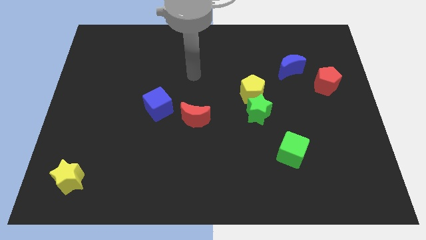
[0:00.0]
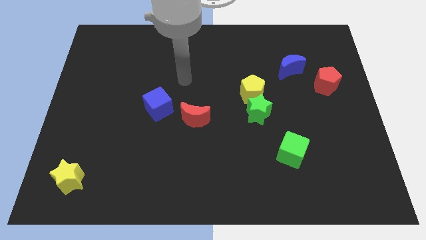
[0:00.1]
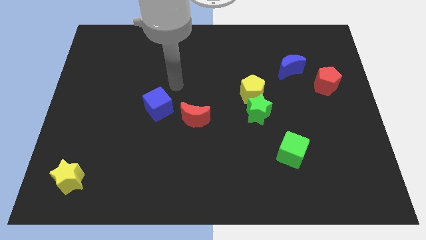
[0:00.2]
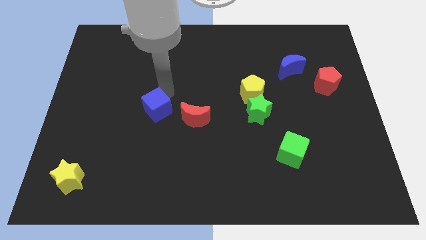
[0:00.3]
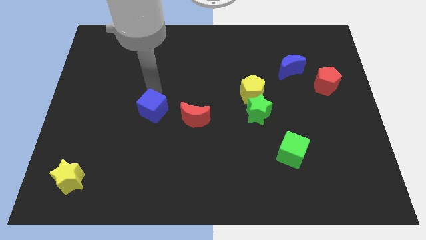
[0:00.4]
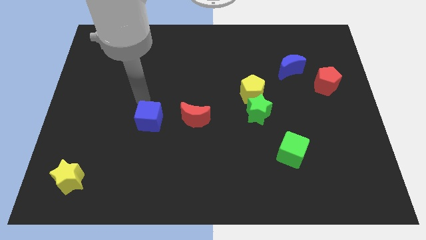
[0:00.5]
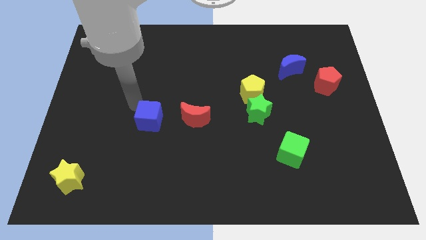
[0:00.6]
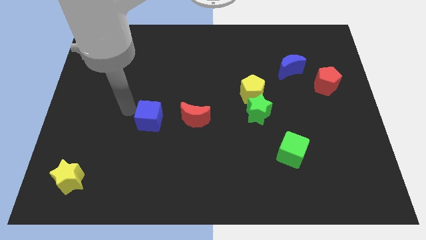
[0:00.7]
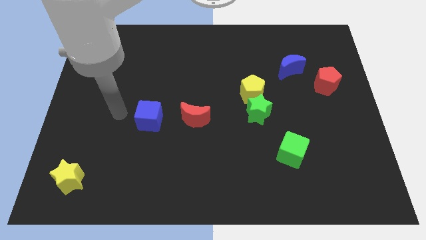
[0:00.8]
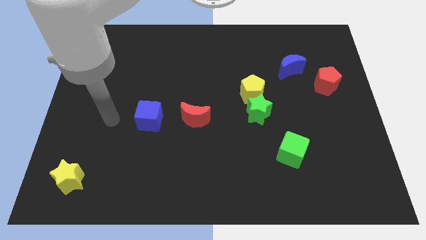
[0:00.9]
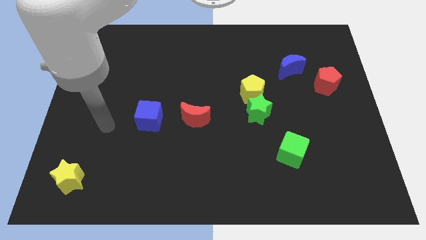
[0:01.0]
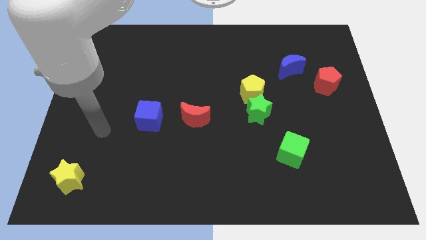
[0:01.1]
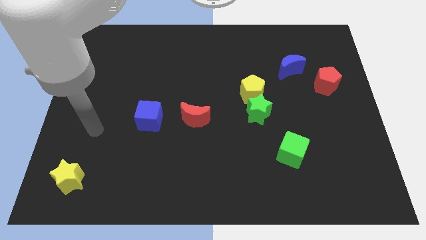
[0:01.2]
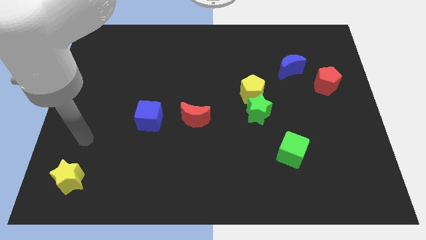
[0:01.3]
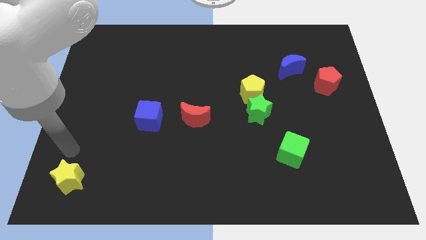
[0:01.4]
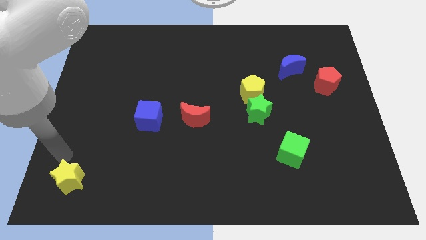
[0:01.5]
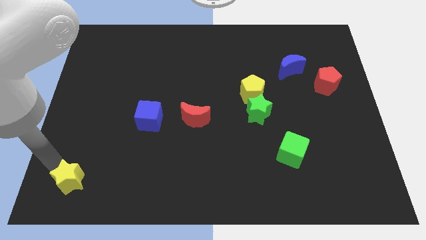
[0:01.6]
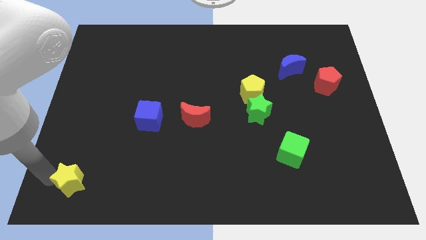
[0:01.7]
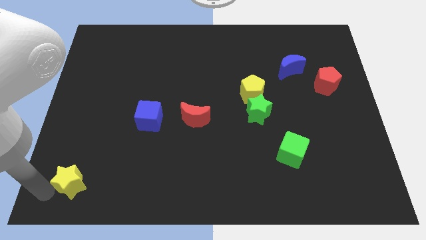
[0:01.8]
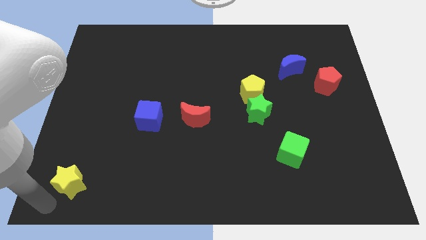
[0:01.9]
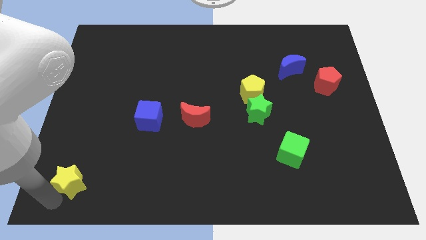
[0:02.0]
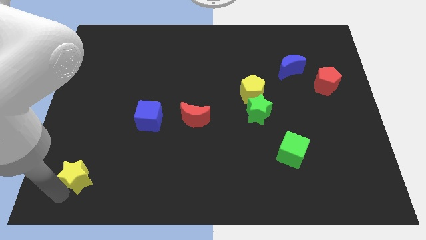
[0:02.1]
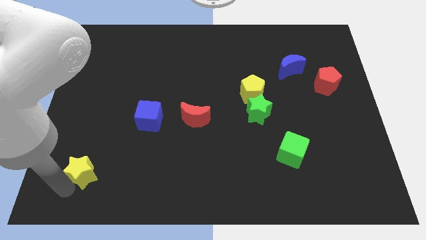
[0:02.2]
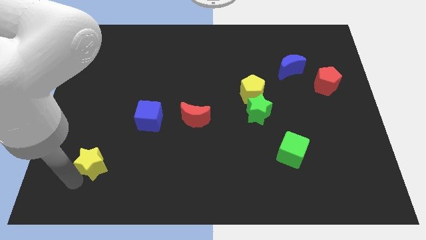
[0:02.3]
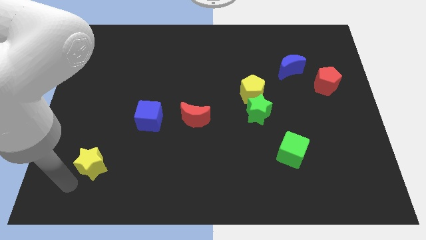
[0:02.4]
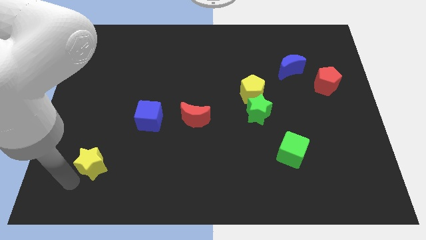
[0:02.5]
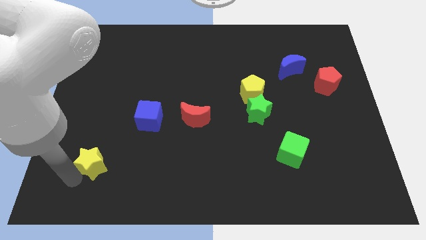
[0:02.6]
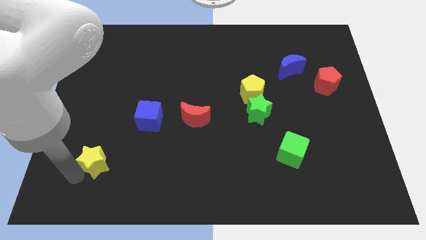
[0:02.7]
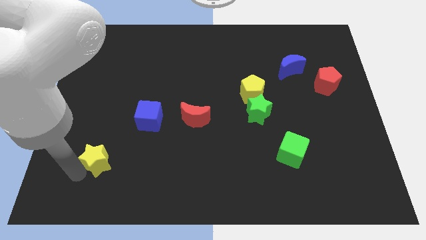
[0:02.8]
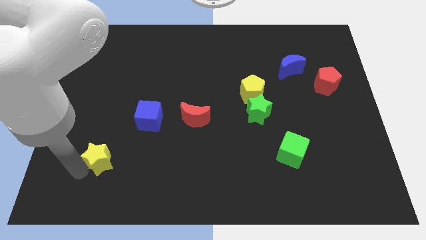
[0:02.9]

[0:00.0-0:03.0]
push the yellow star somewhat upwards and then right

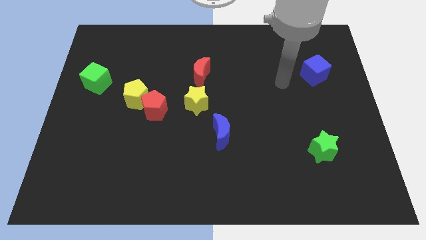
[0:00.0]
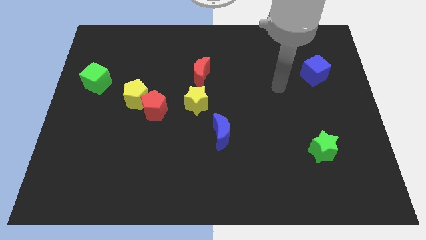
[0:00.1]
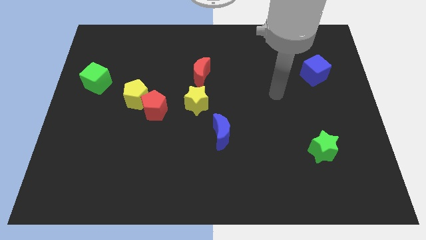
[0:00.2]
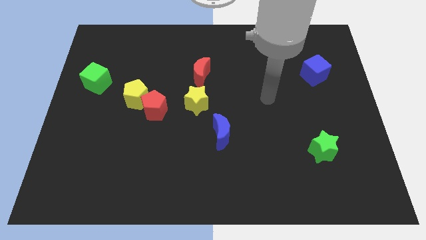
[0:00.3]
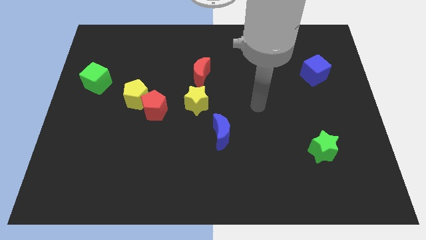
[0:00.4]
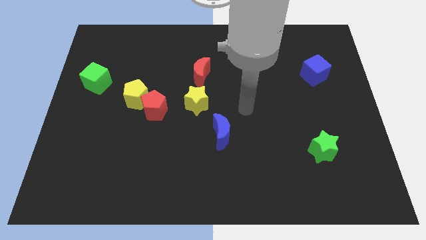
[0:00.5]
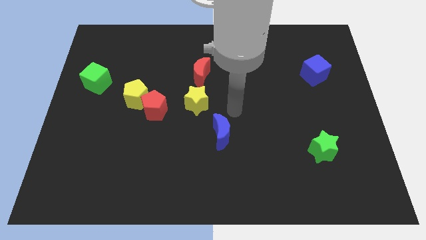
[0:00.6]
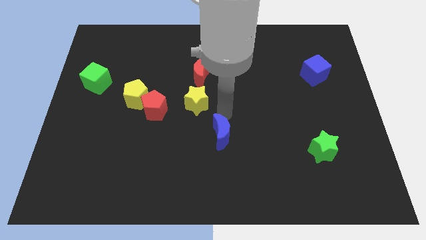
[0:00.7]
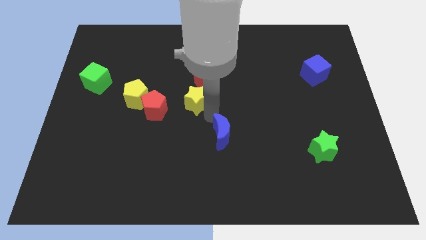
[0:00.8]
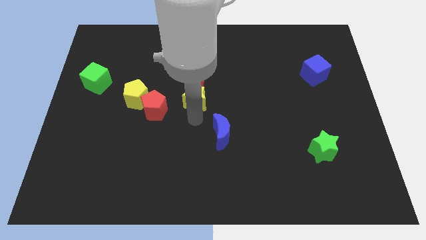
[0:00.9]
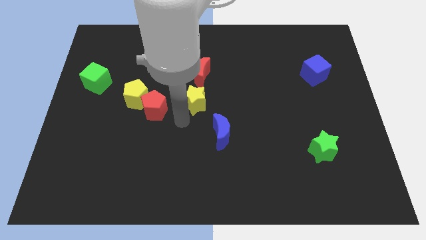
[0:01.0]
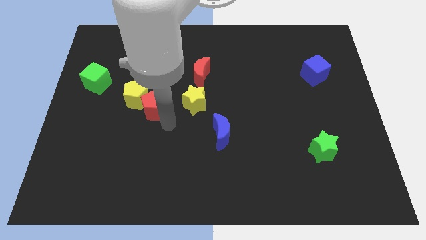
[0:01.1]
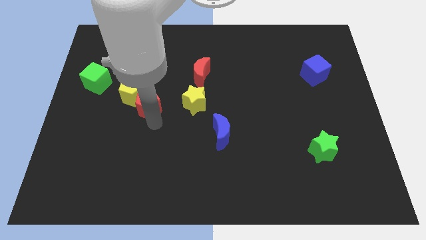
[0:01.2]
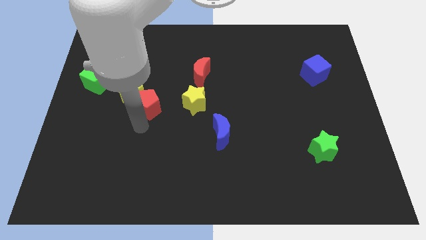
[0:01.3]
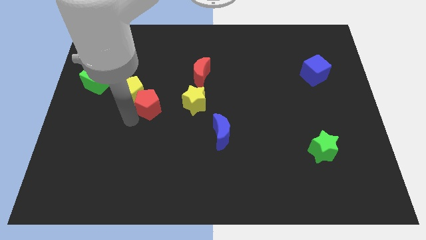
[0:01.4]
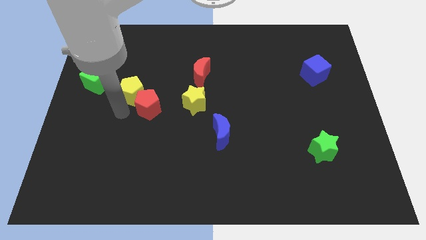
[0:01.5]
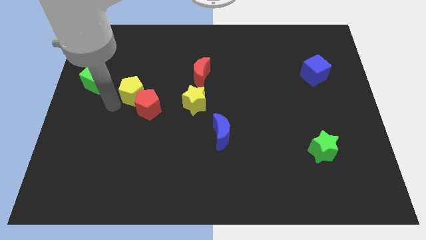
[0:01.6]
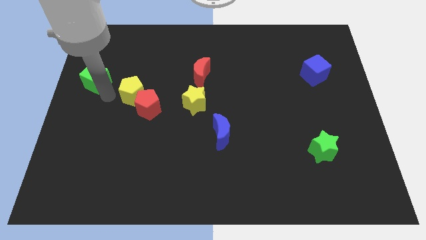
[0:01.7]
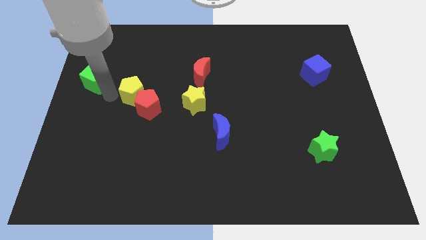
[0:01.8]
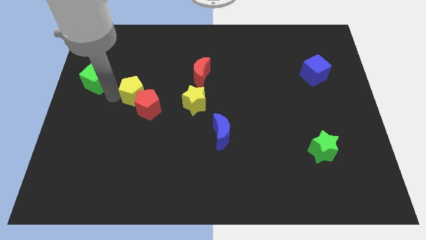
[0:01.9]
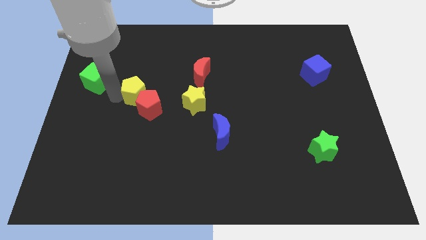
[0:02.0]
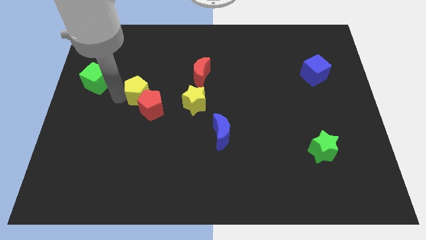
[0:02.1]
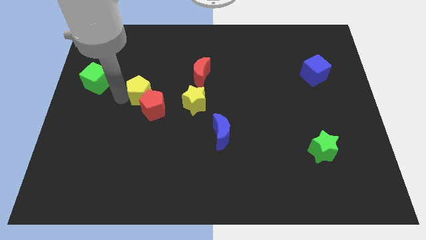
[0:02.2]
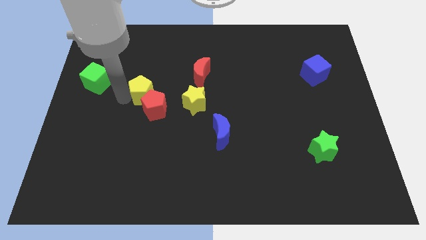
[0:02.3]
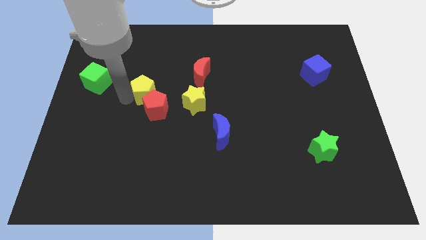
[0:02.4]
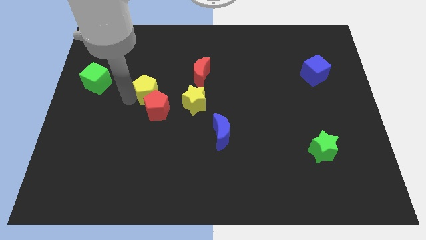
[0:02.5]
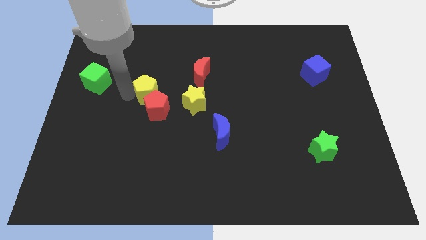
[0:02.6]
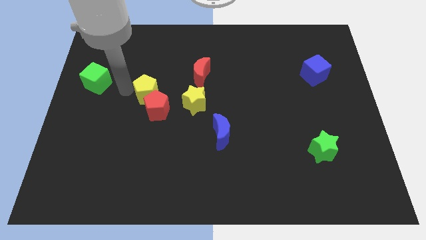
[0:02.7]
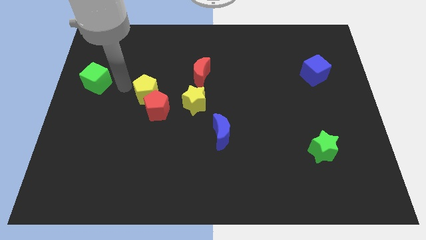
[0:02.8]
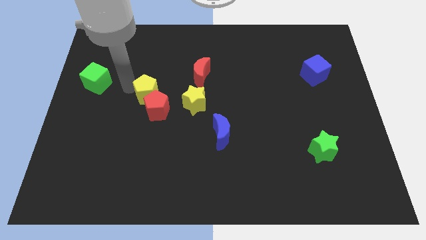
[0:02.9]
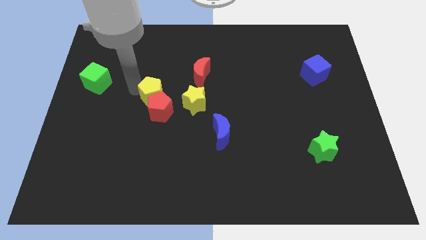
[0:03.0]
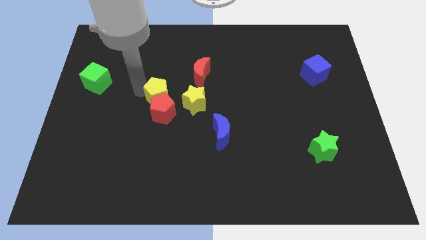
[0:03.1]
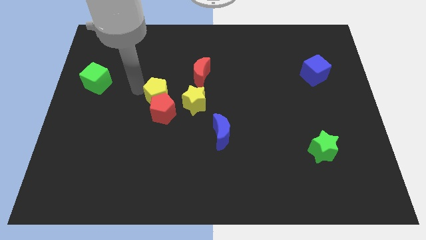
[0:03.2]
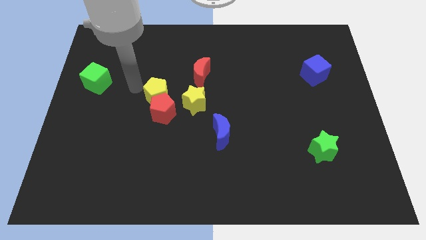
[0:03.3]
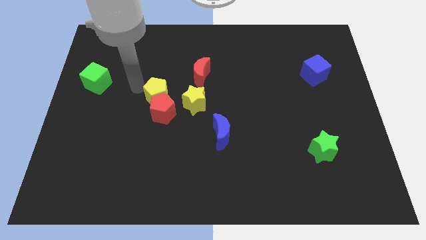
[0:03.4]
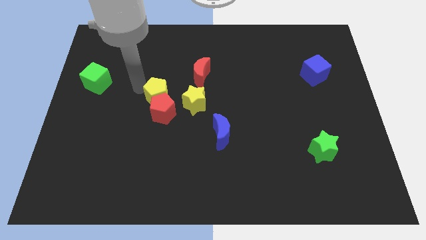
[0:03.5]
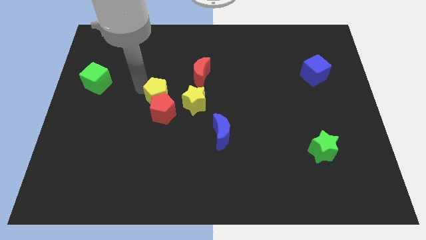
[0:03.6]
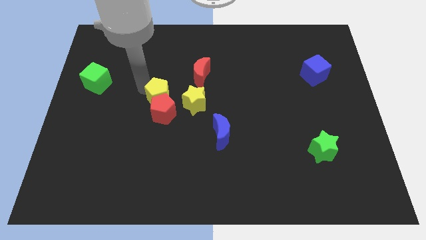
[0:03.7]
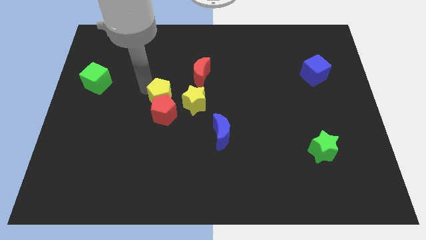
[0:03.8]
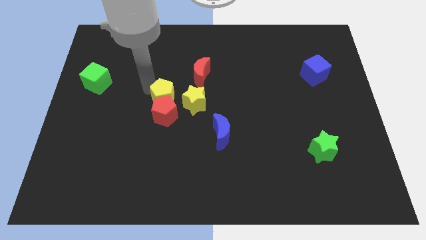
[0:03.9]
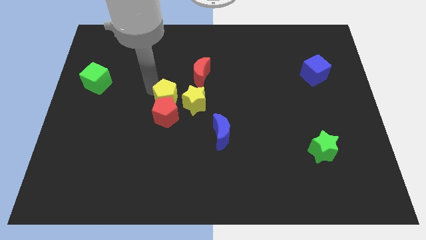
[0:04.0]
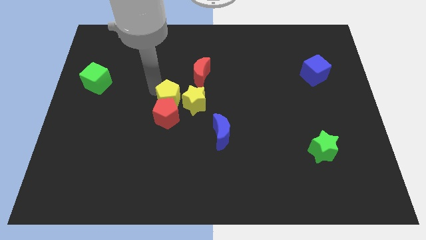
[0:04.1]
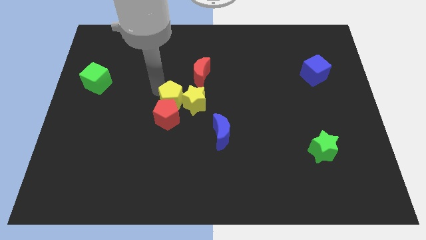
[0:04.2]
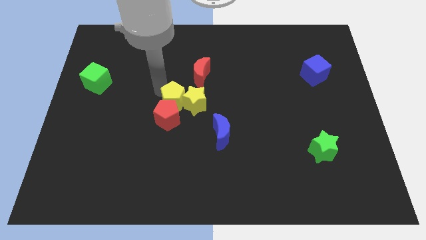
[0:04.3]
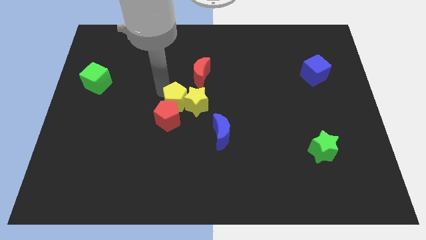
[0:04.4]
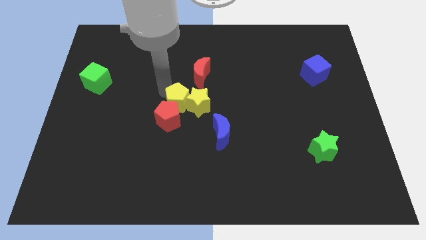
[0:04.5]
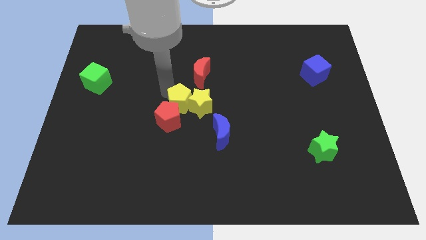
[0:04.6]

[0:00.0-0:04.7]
slide the yellow pentagon slightly diagonally down and to the right
